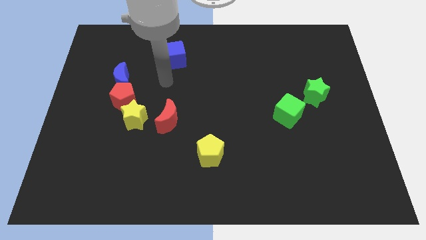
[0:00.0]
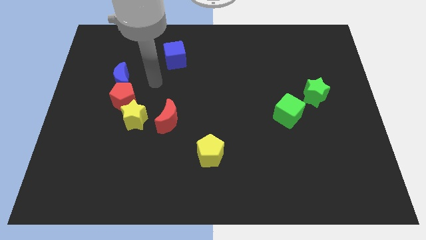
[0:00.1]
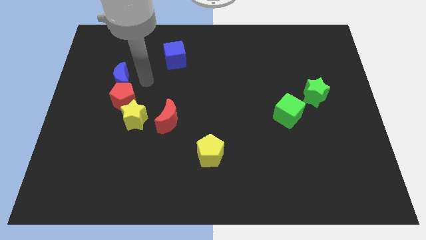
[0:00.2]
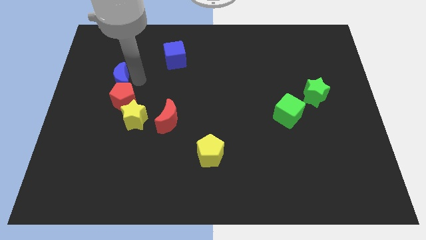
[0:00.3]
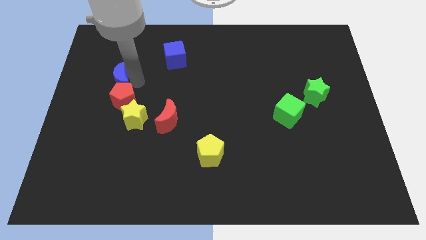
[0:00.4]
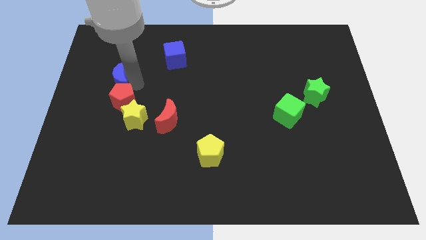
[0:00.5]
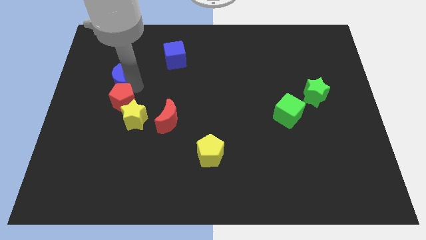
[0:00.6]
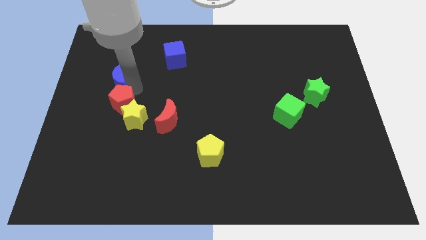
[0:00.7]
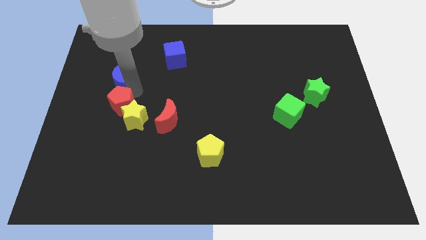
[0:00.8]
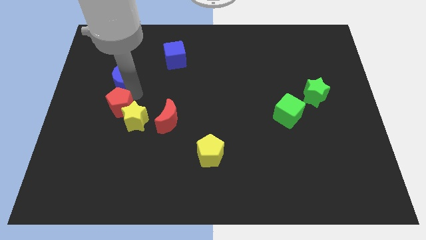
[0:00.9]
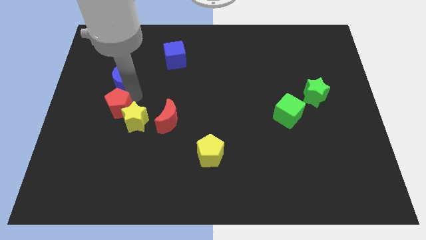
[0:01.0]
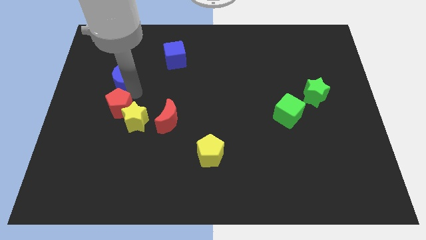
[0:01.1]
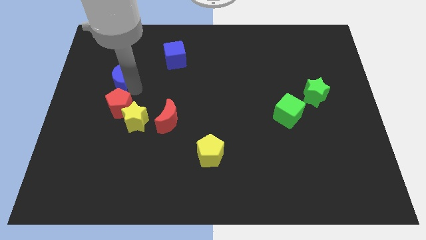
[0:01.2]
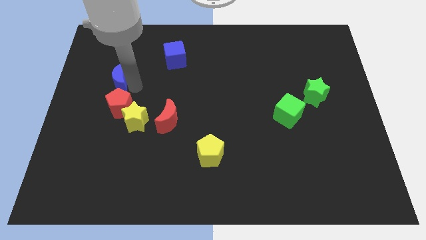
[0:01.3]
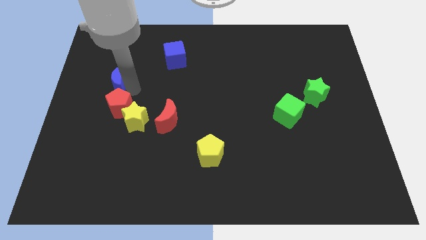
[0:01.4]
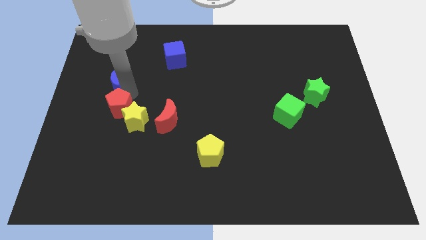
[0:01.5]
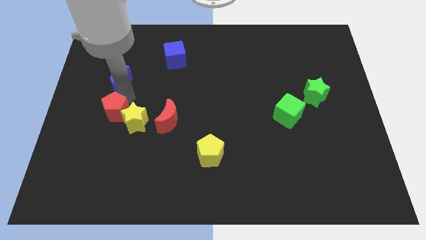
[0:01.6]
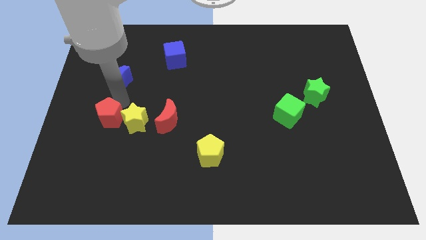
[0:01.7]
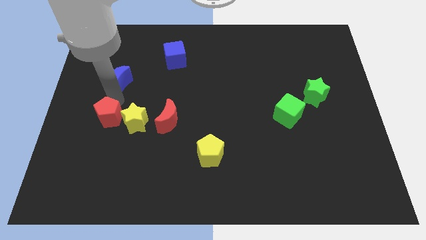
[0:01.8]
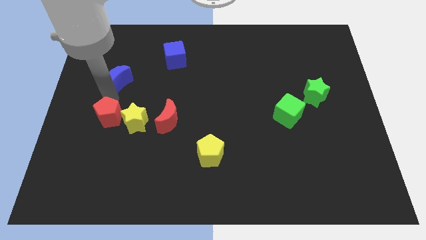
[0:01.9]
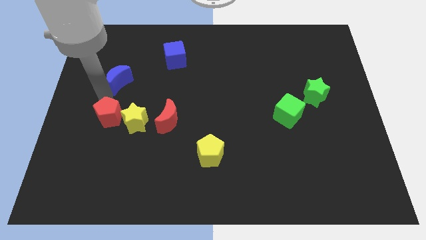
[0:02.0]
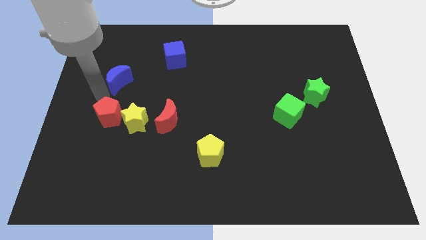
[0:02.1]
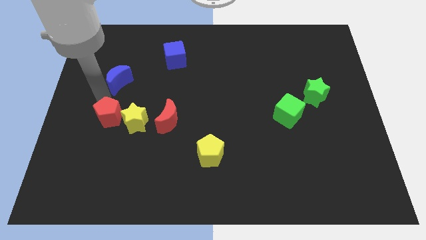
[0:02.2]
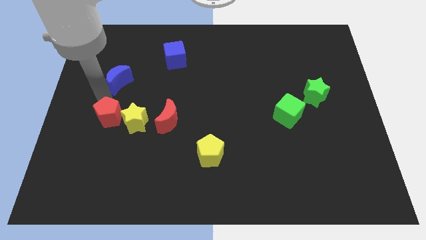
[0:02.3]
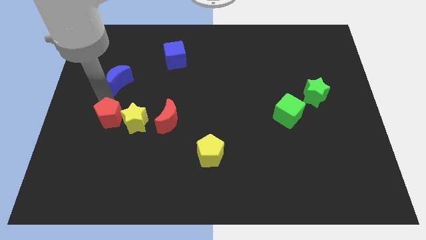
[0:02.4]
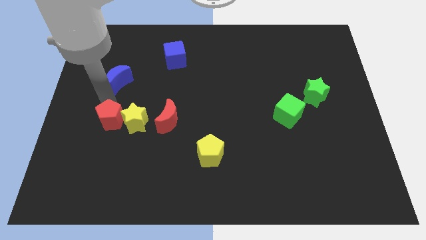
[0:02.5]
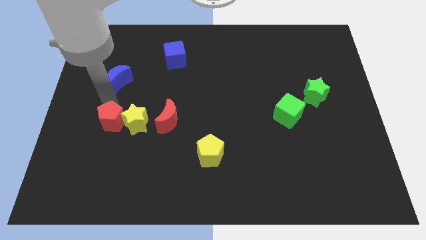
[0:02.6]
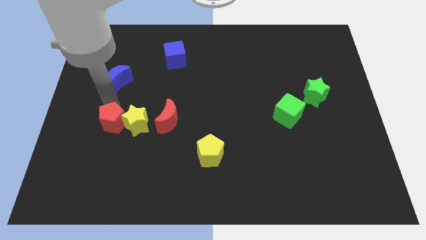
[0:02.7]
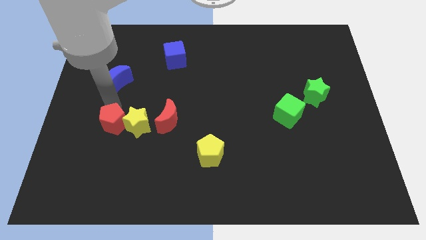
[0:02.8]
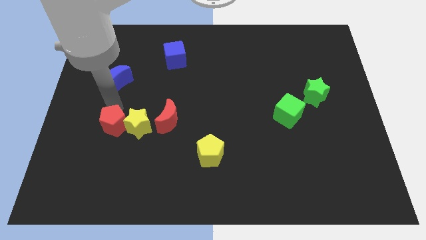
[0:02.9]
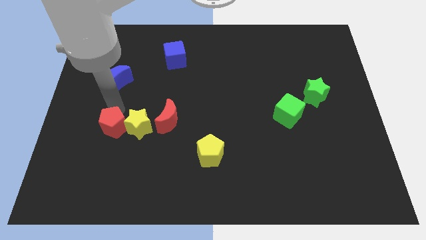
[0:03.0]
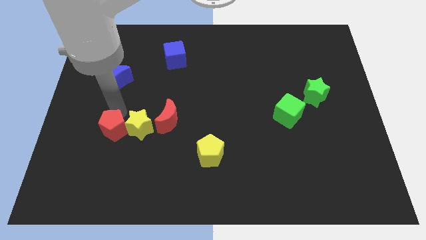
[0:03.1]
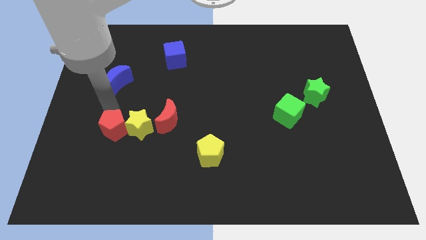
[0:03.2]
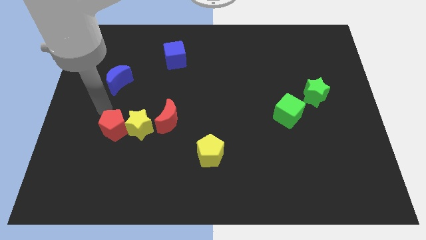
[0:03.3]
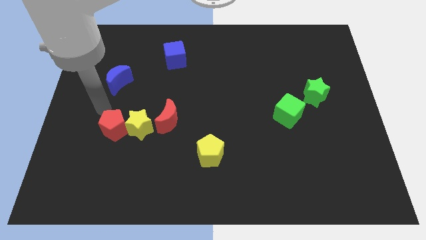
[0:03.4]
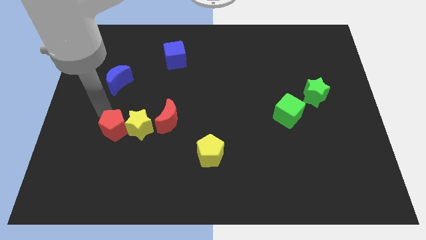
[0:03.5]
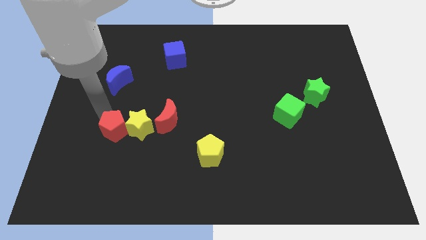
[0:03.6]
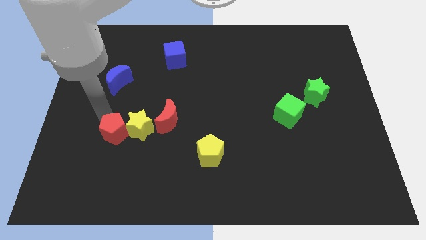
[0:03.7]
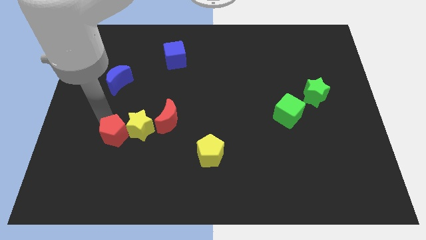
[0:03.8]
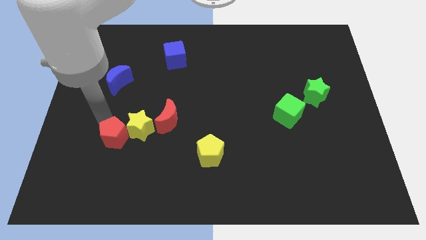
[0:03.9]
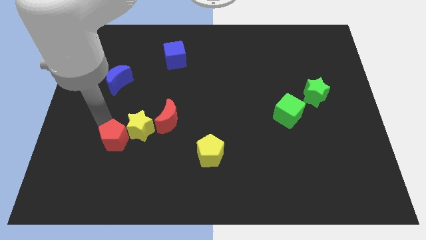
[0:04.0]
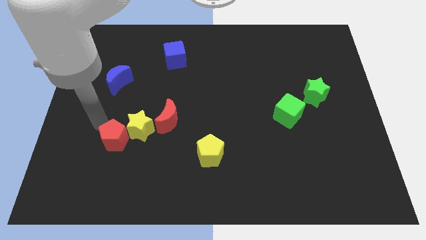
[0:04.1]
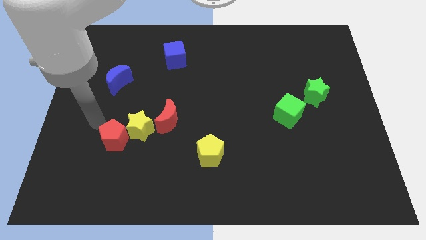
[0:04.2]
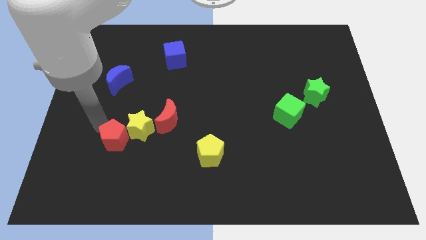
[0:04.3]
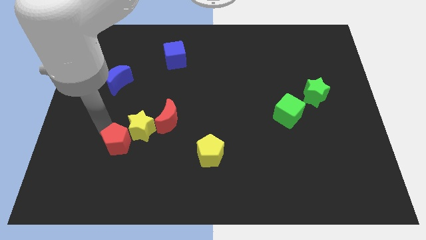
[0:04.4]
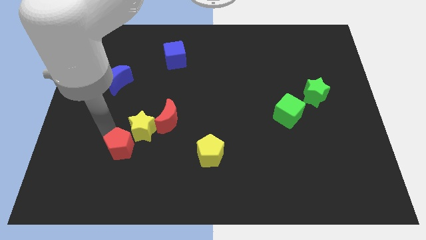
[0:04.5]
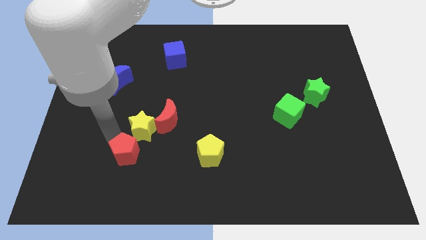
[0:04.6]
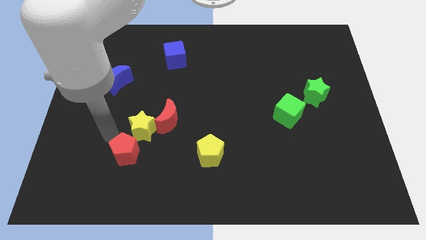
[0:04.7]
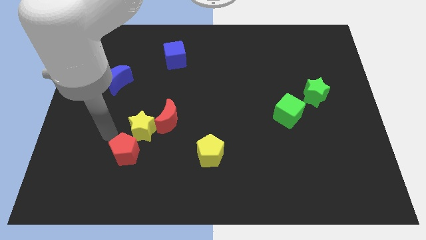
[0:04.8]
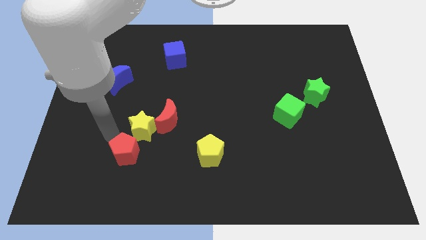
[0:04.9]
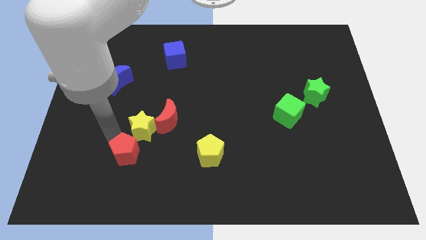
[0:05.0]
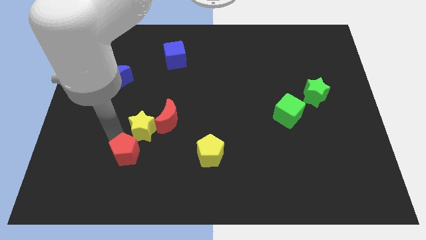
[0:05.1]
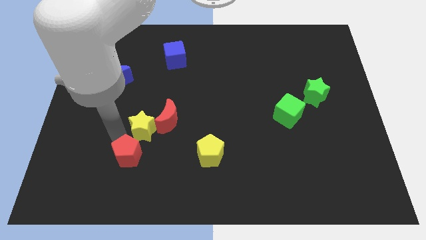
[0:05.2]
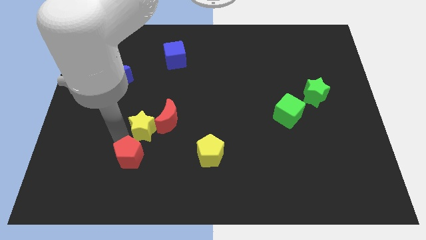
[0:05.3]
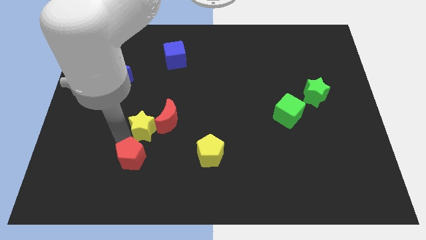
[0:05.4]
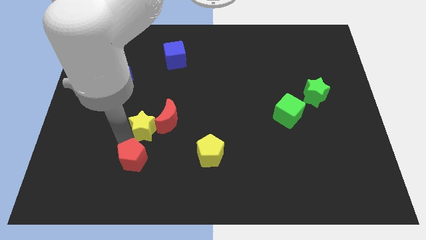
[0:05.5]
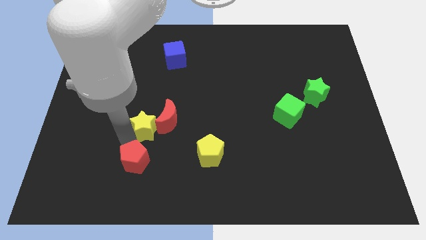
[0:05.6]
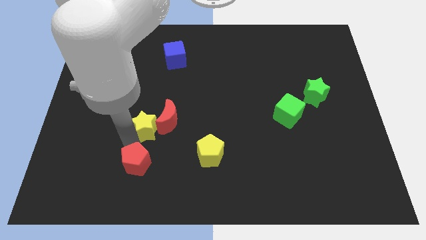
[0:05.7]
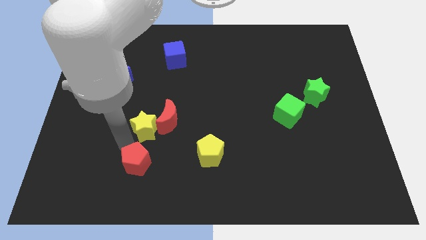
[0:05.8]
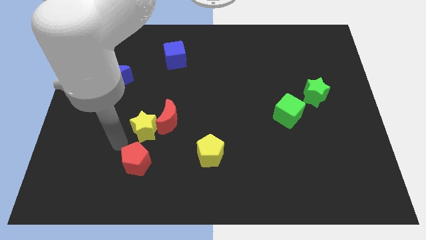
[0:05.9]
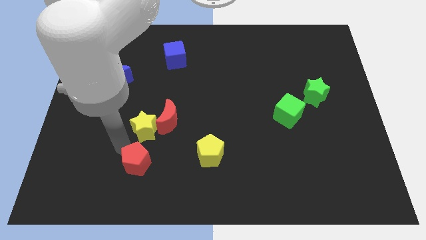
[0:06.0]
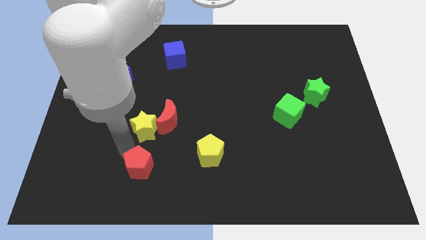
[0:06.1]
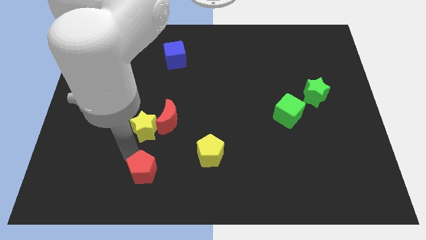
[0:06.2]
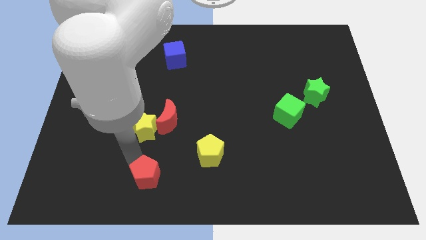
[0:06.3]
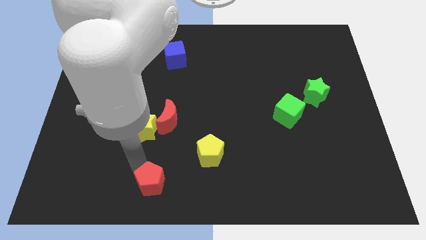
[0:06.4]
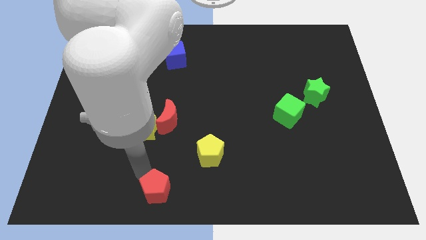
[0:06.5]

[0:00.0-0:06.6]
slide the red pentagon to the bottom

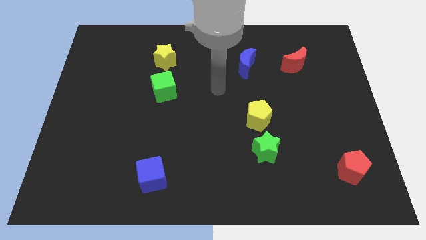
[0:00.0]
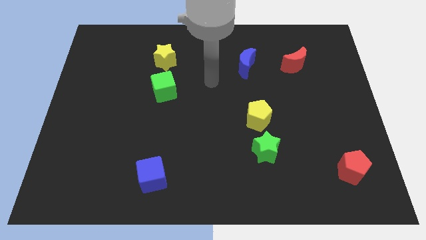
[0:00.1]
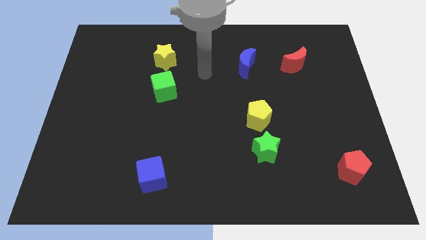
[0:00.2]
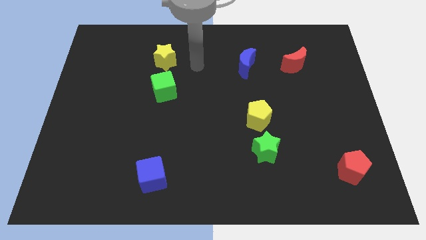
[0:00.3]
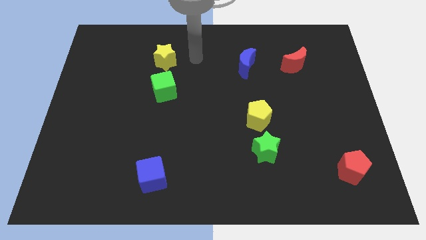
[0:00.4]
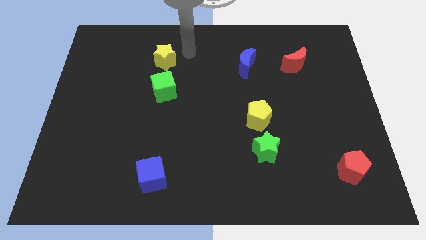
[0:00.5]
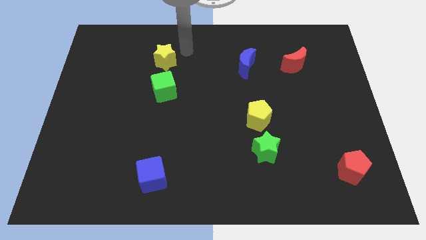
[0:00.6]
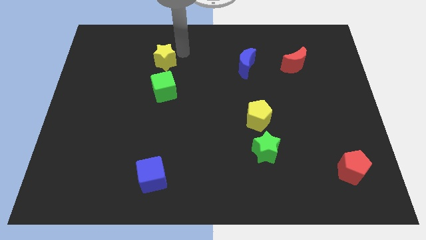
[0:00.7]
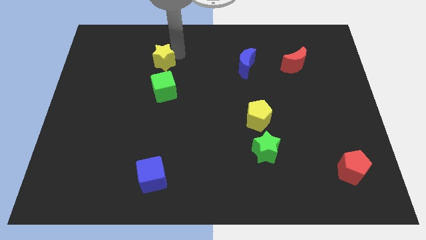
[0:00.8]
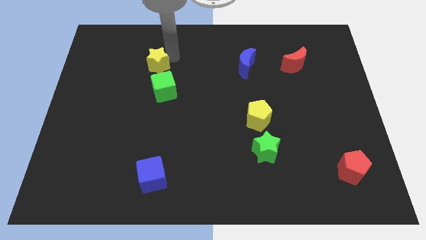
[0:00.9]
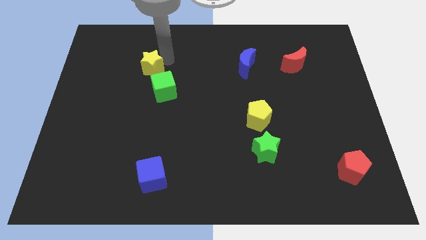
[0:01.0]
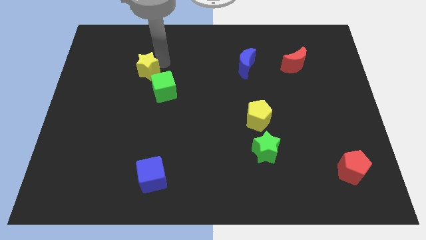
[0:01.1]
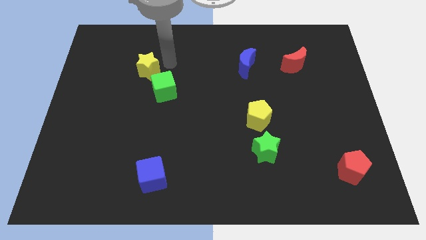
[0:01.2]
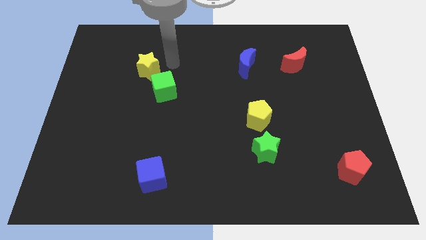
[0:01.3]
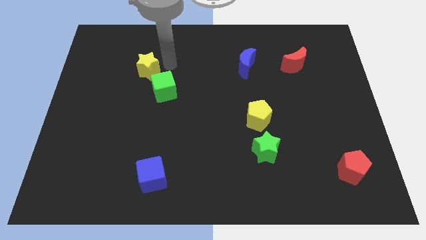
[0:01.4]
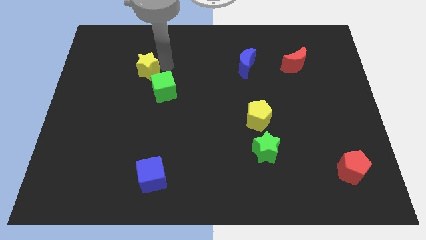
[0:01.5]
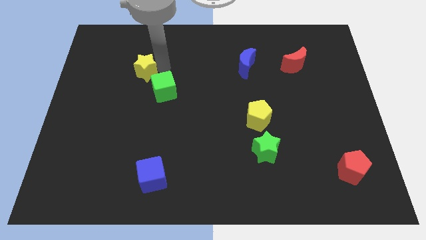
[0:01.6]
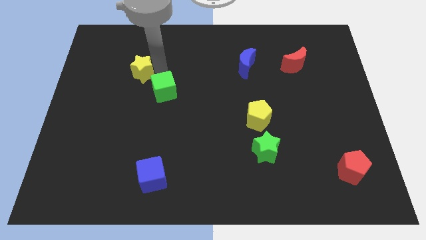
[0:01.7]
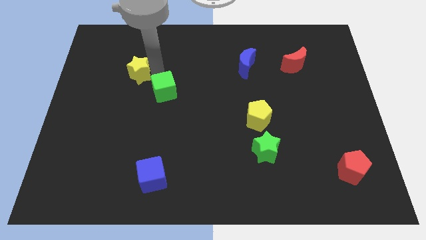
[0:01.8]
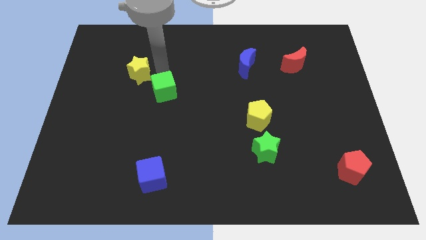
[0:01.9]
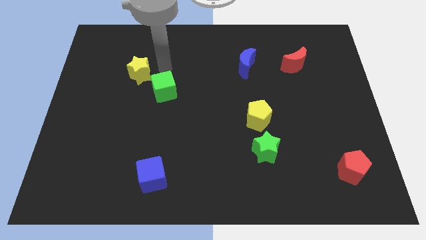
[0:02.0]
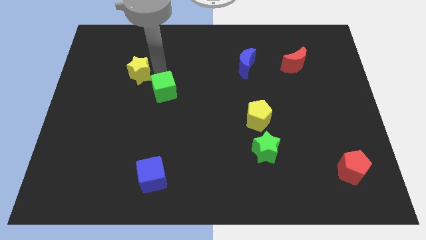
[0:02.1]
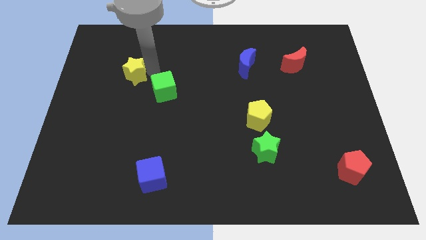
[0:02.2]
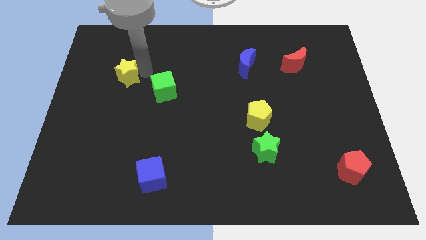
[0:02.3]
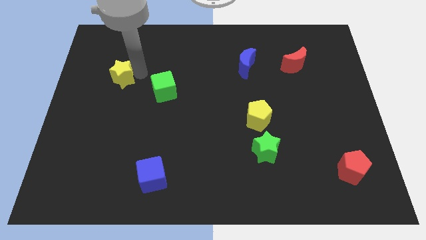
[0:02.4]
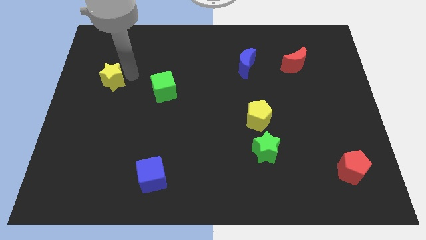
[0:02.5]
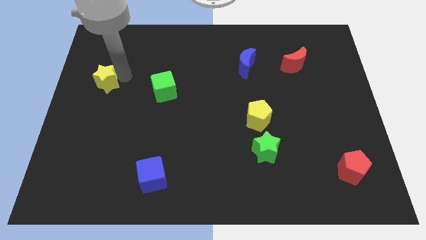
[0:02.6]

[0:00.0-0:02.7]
push the yellow star to the left side of the board
